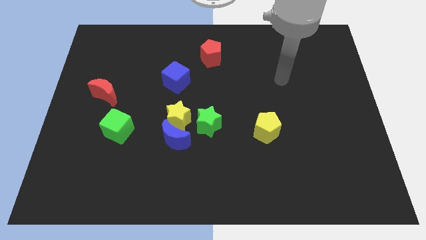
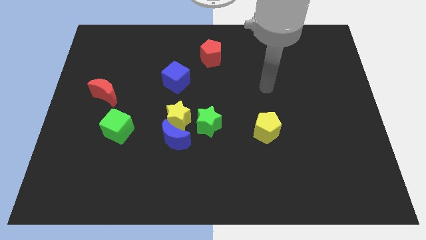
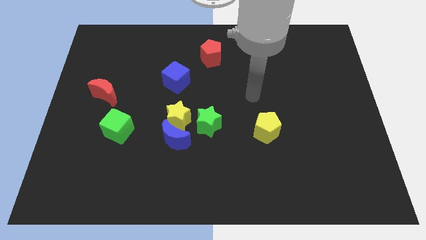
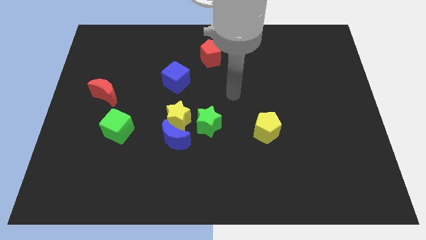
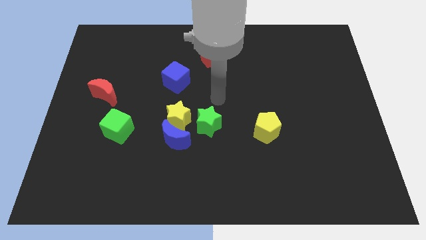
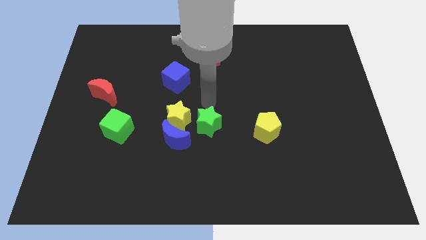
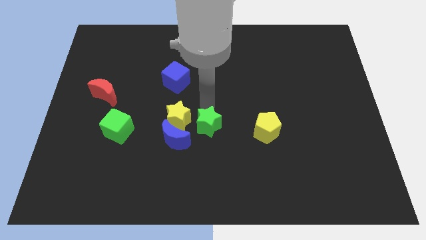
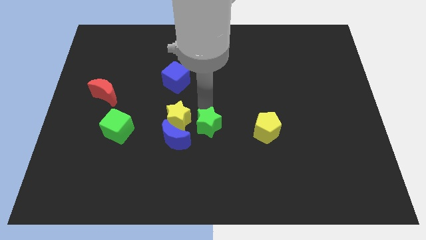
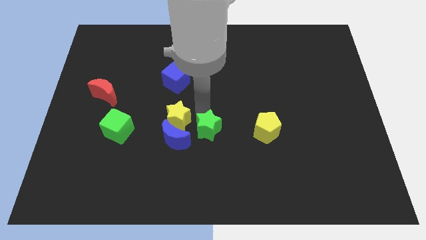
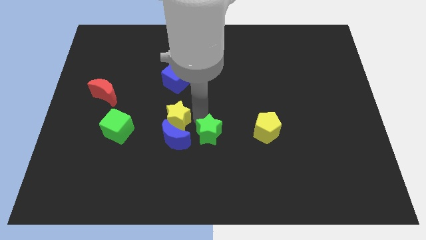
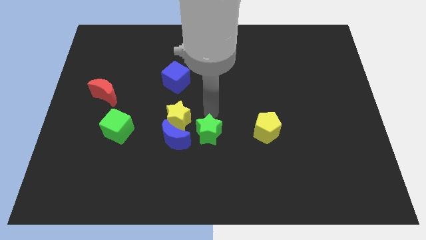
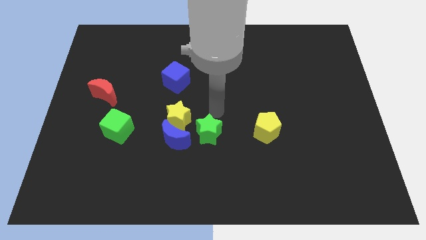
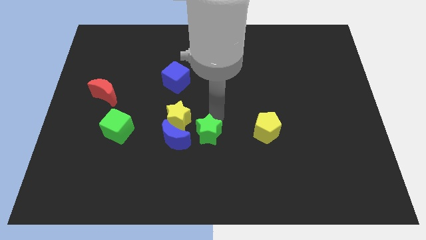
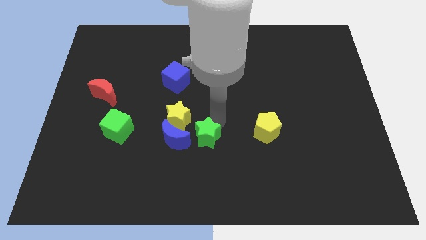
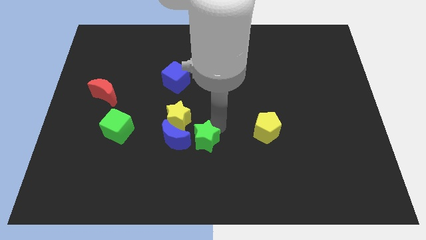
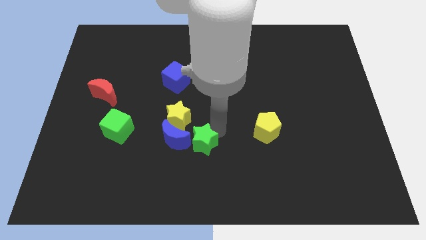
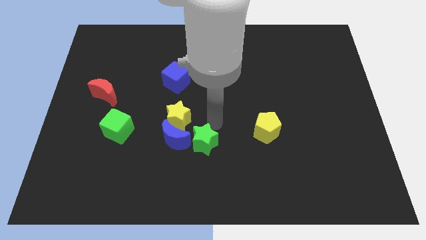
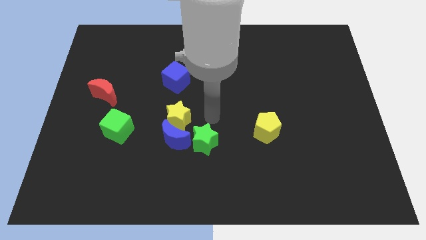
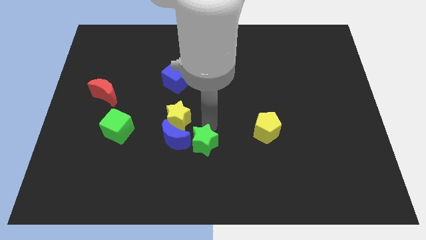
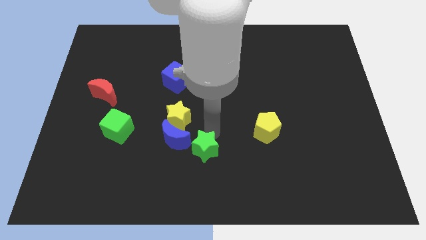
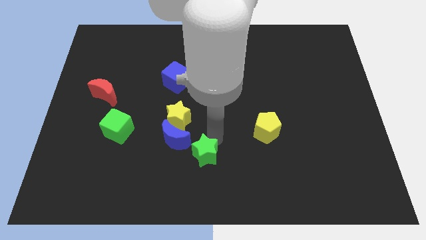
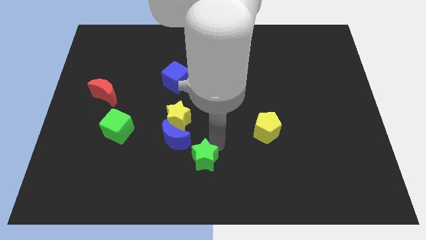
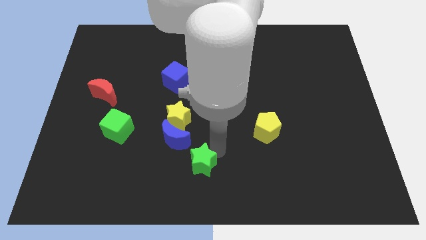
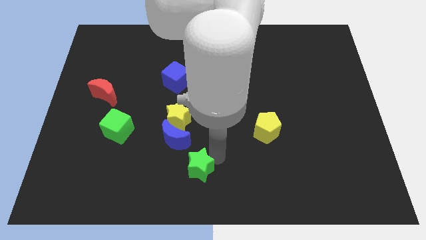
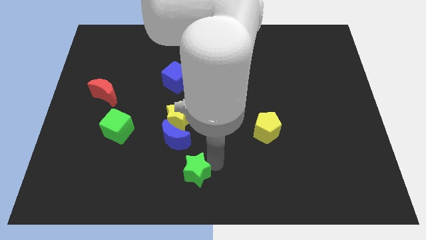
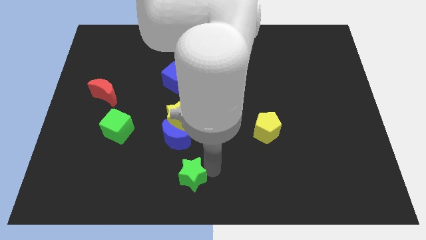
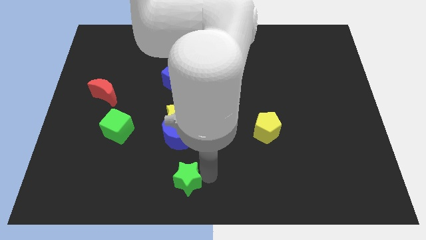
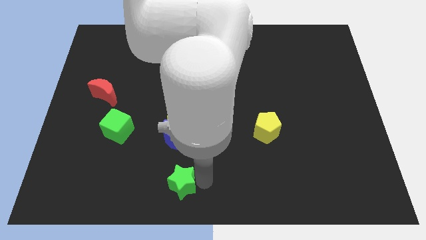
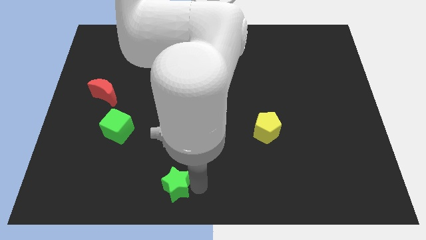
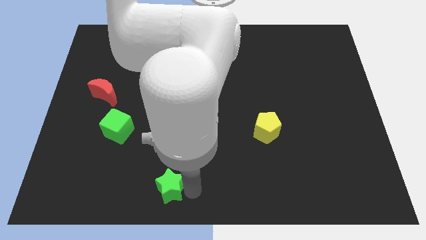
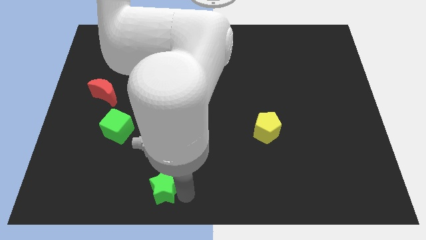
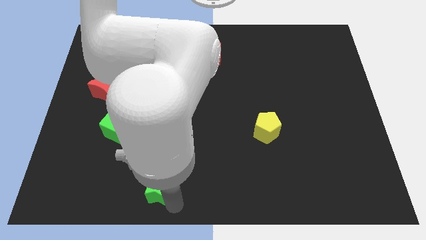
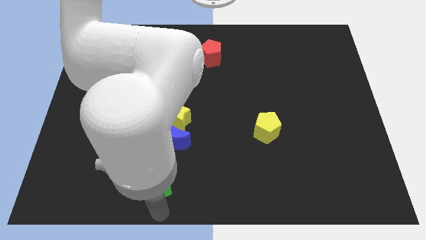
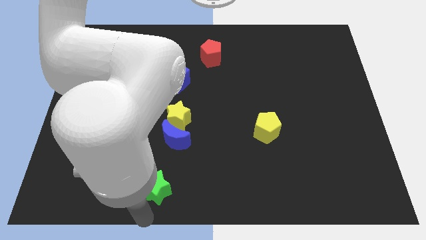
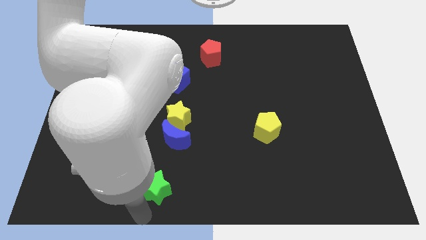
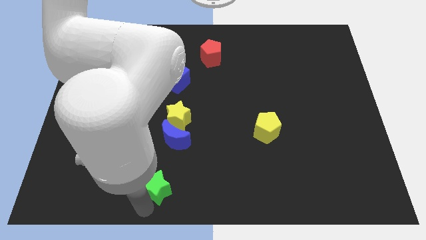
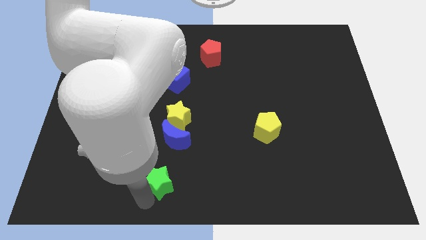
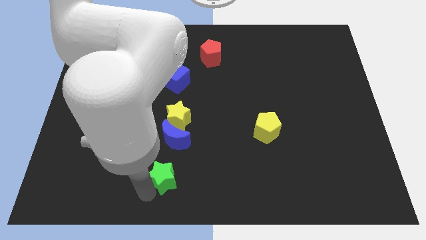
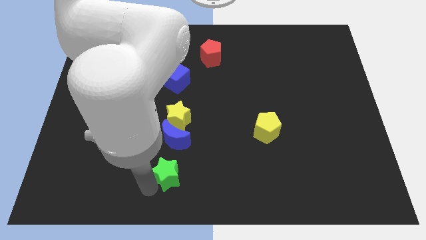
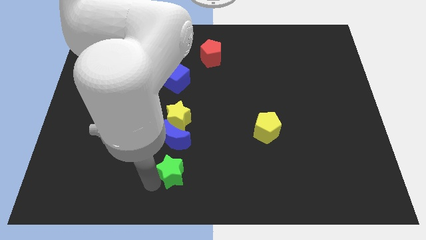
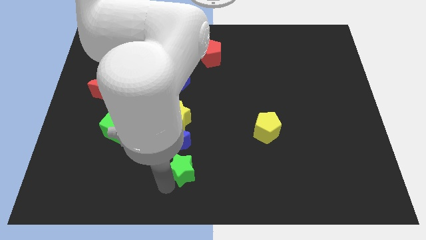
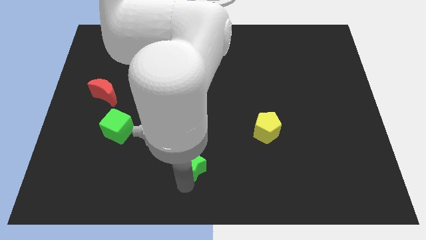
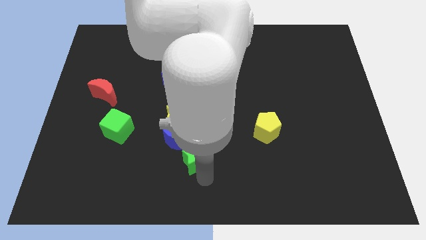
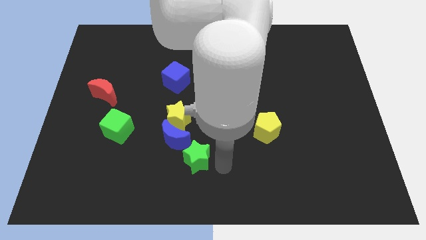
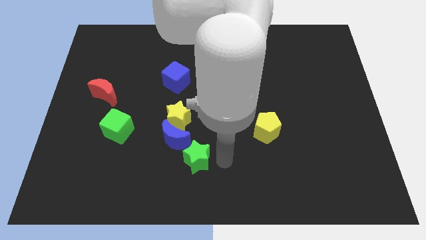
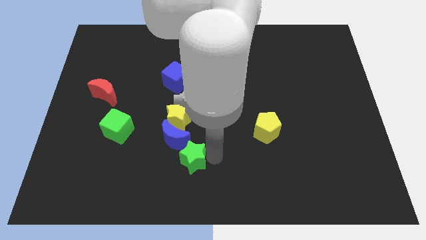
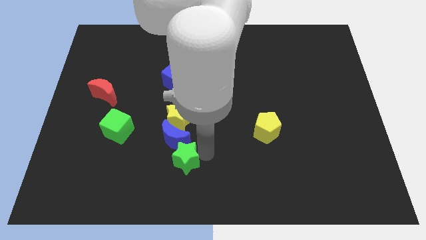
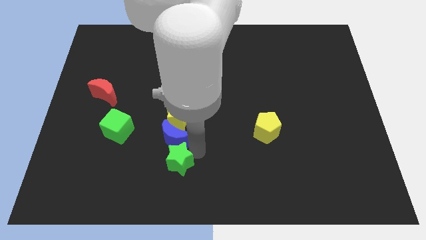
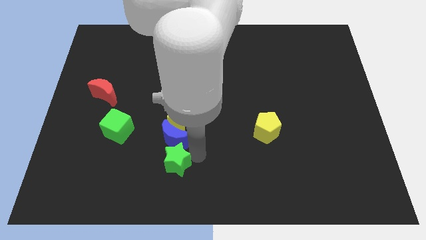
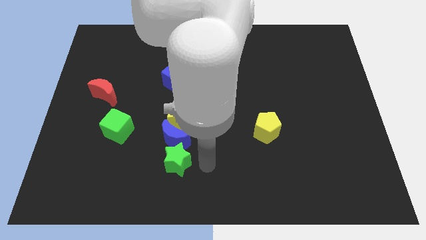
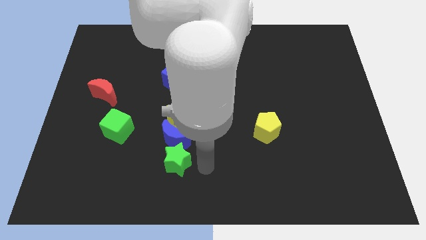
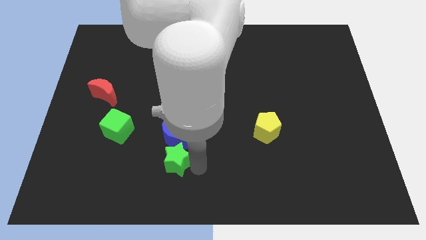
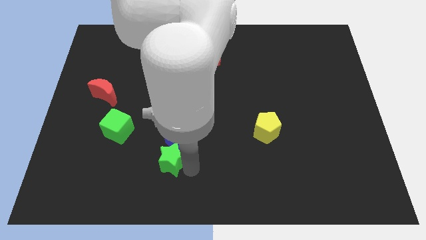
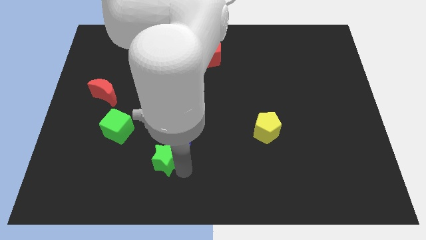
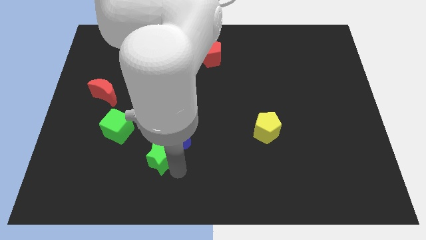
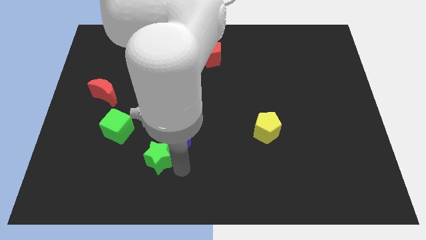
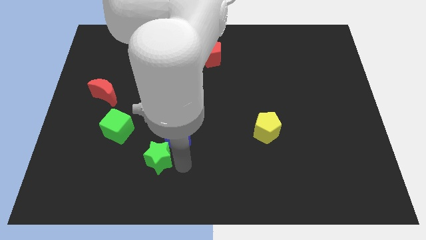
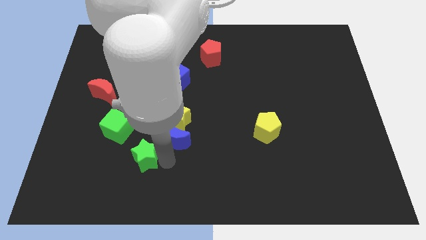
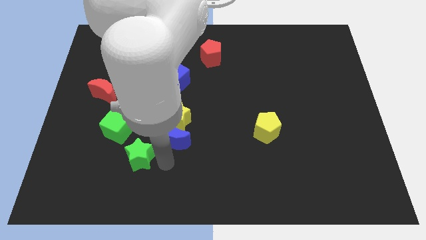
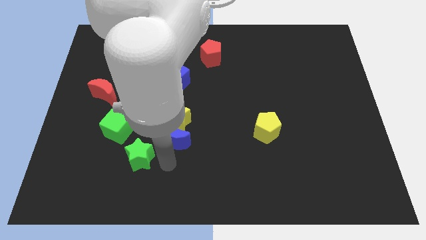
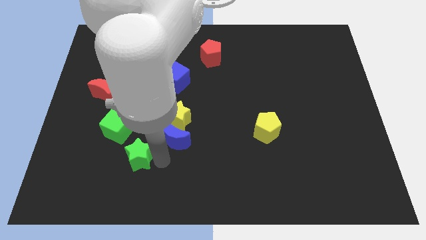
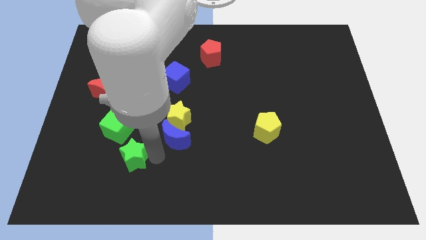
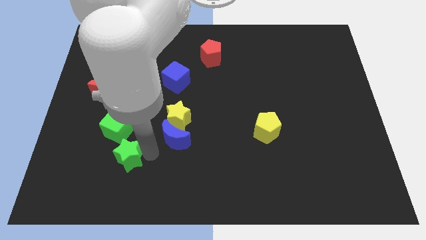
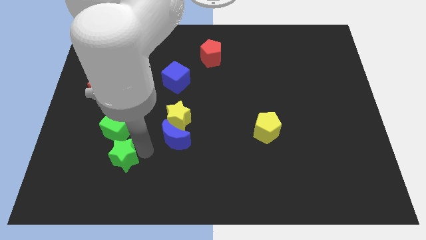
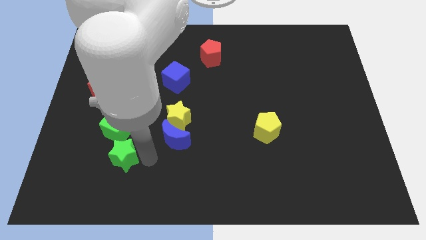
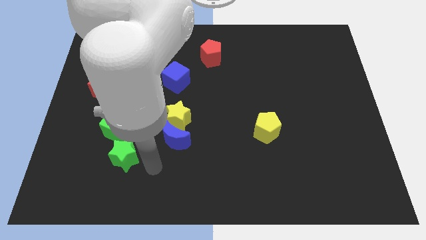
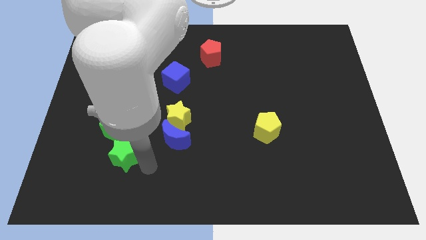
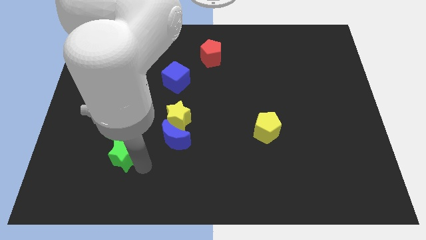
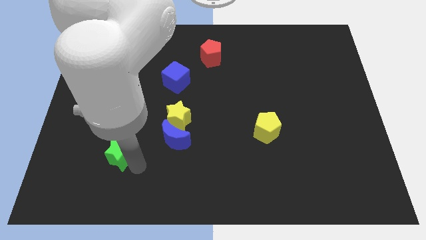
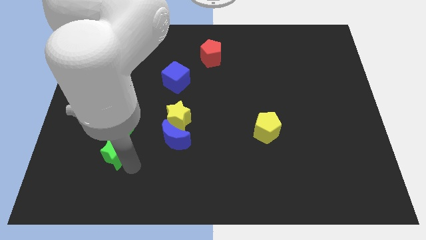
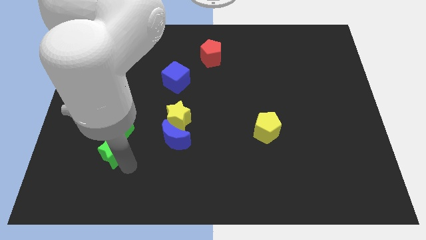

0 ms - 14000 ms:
slide the green star to the bottom left side of the green cube
